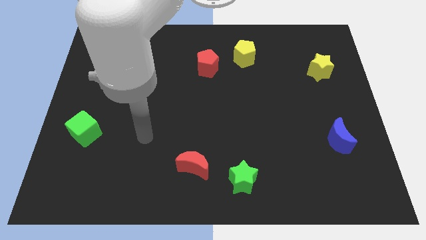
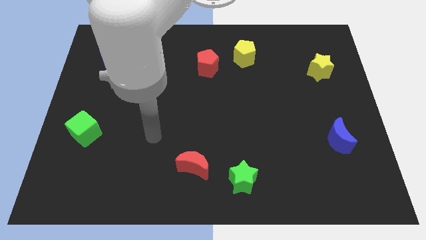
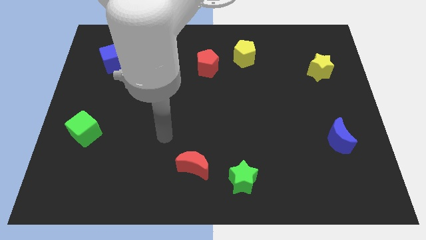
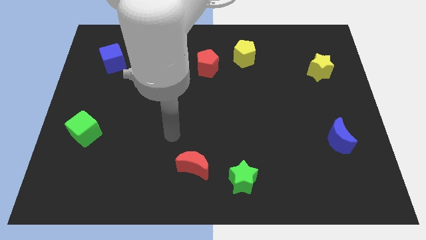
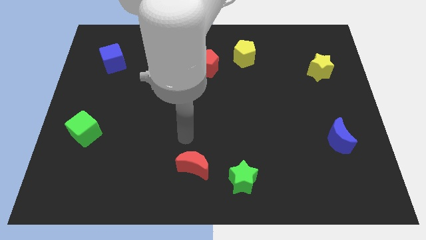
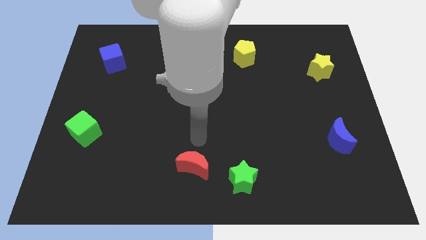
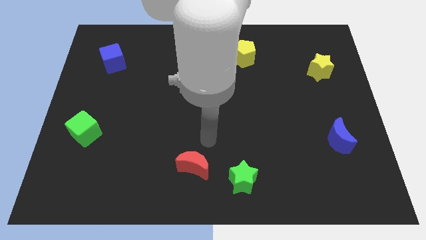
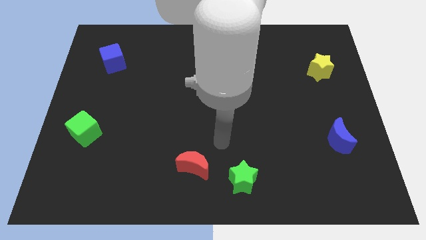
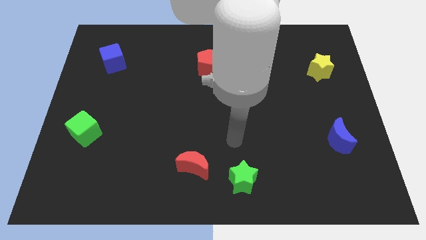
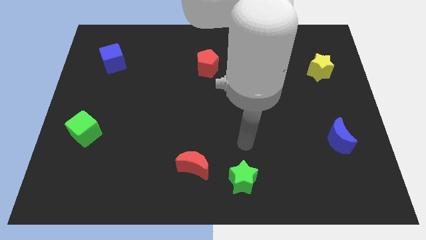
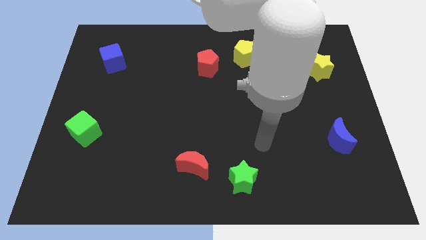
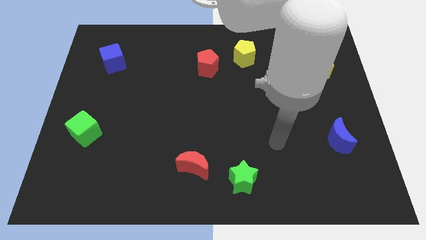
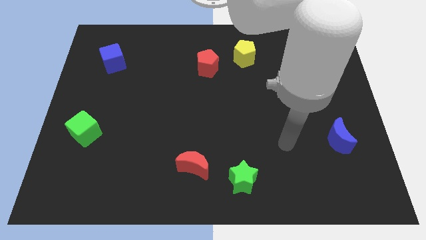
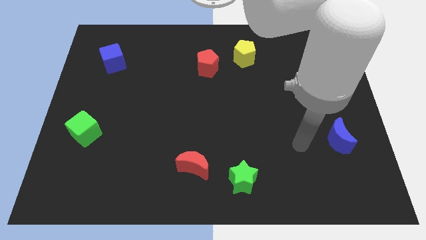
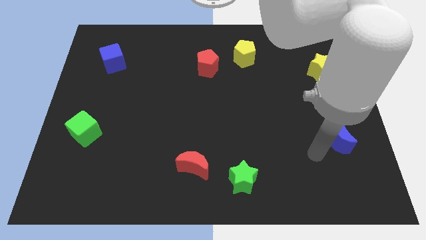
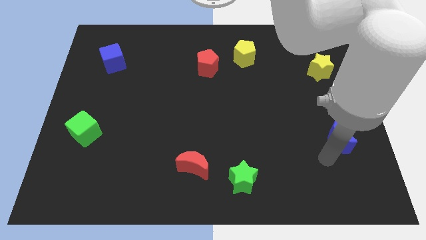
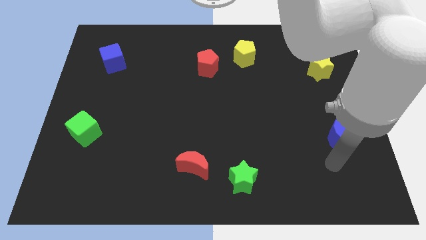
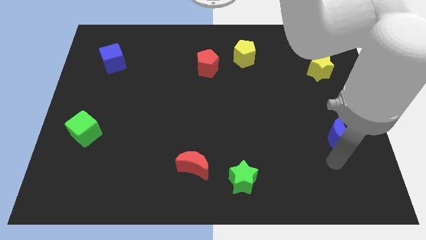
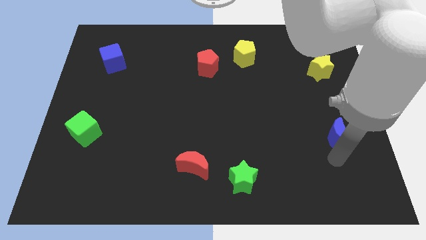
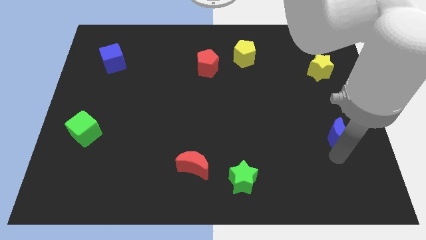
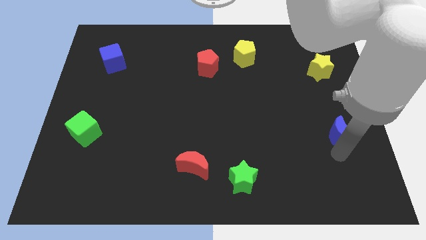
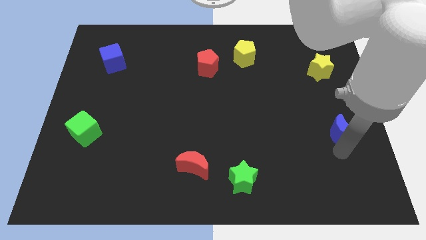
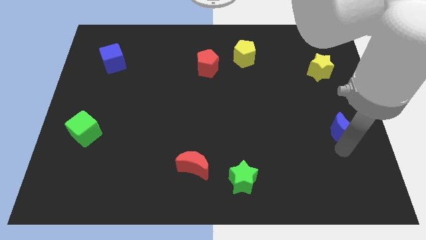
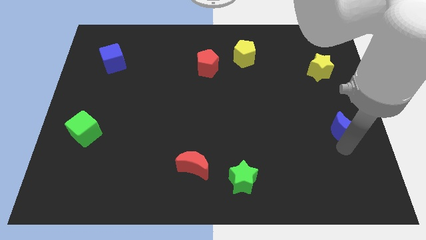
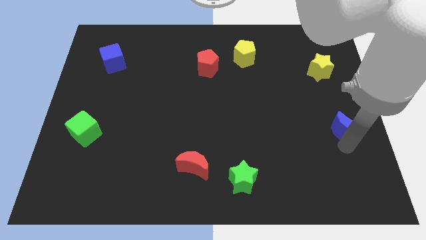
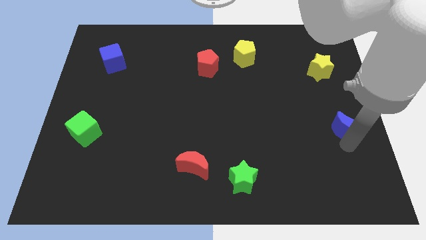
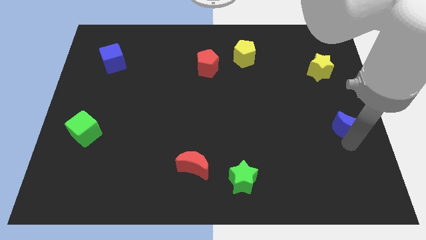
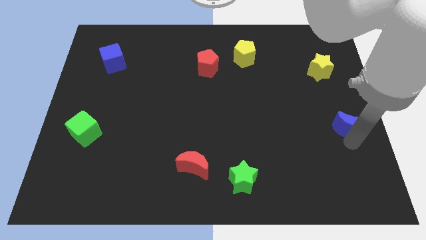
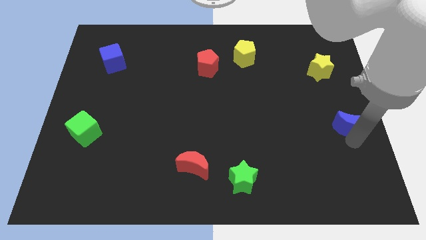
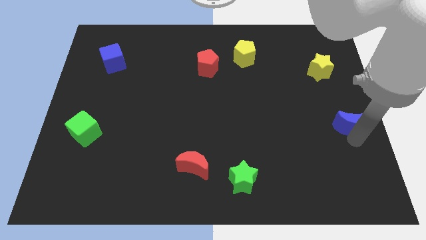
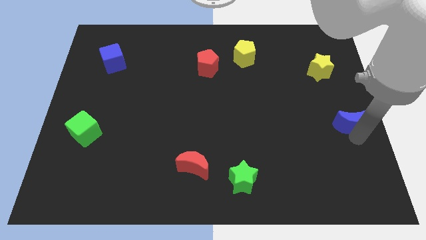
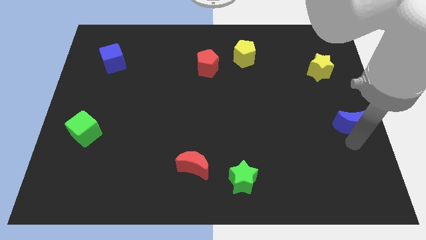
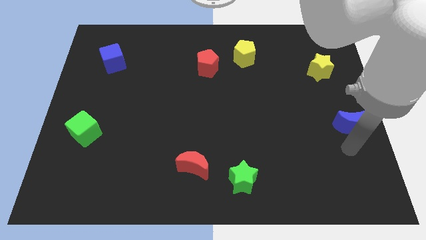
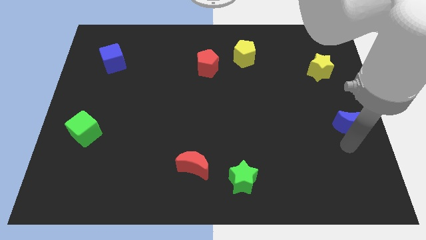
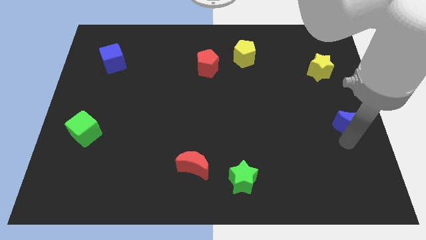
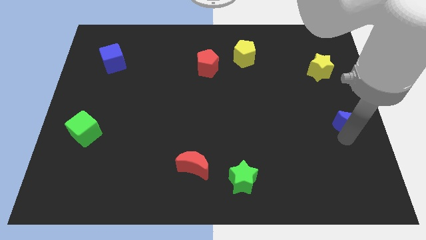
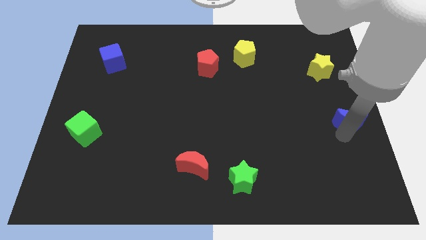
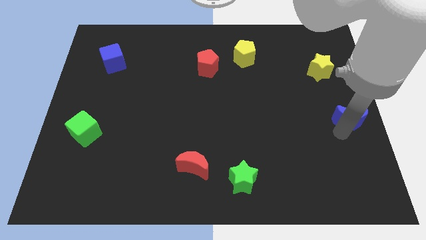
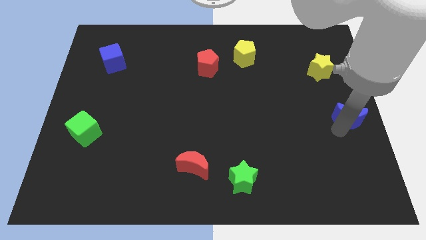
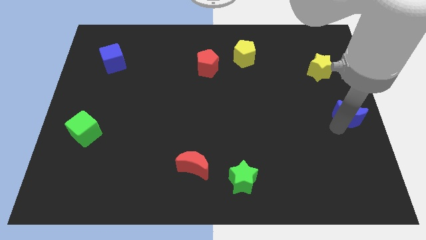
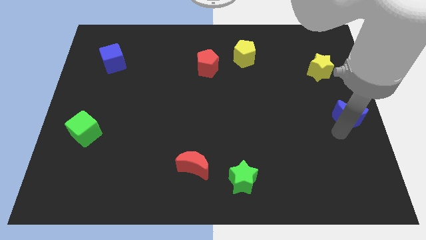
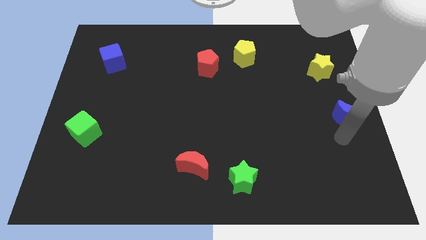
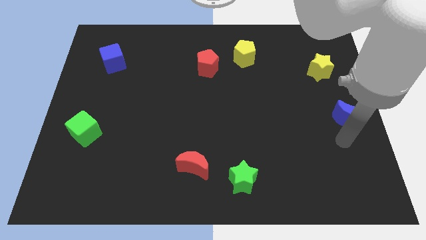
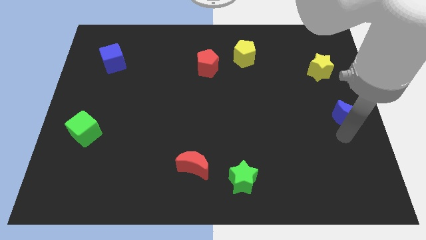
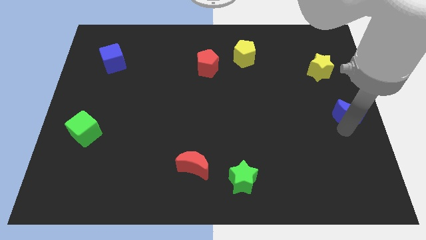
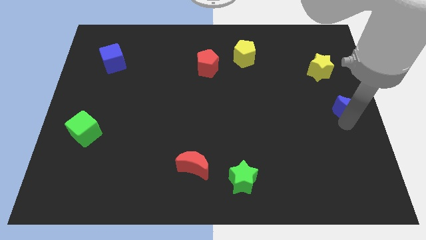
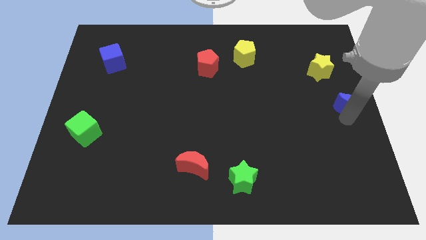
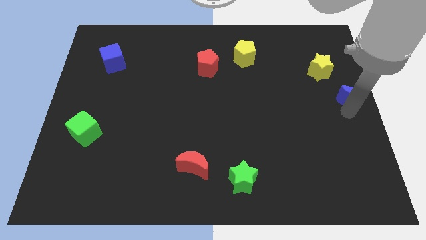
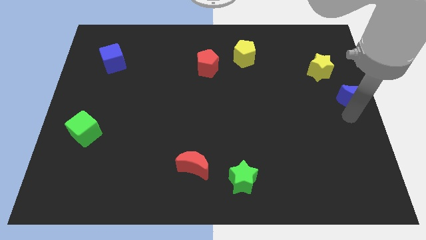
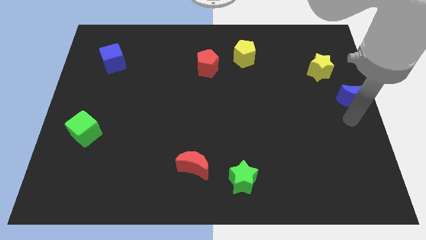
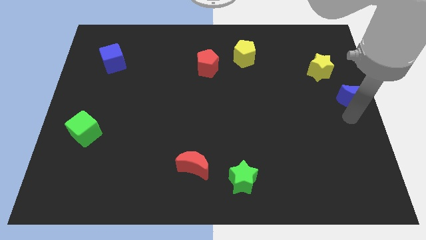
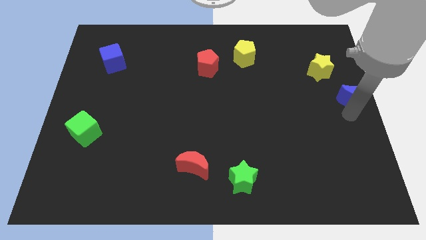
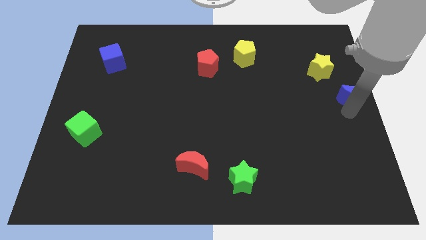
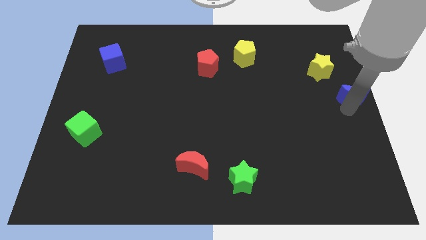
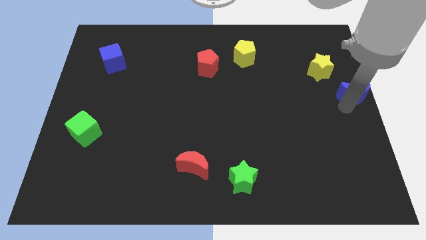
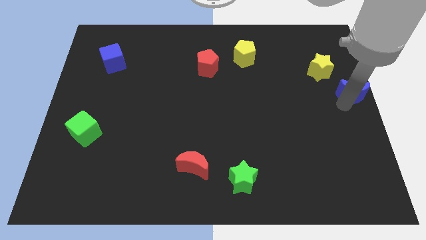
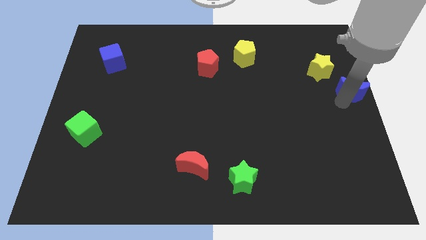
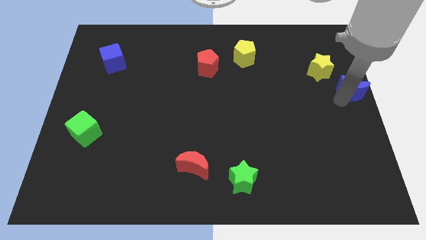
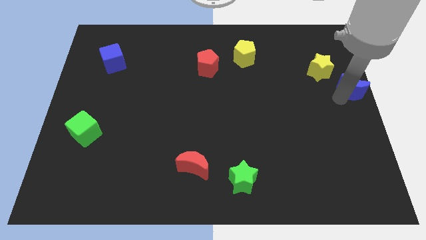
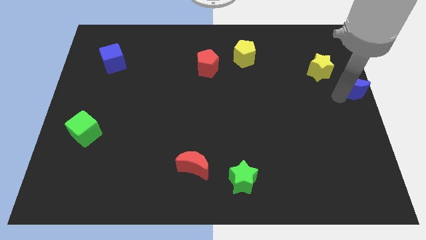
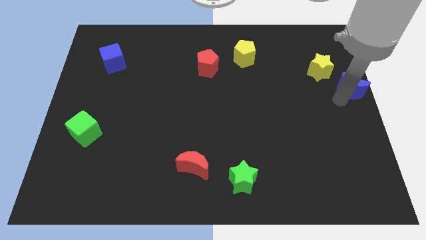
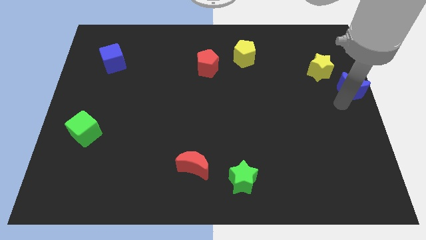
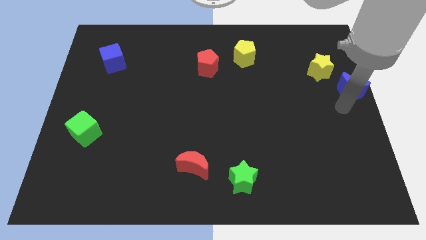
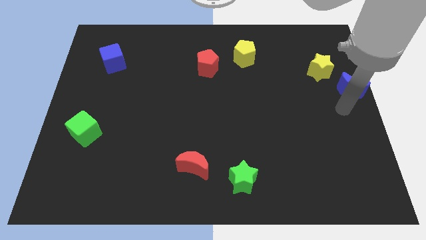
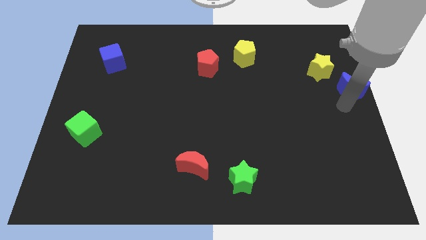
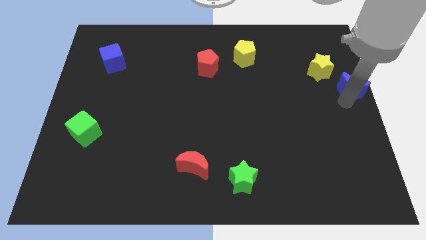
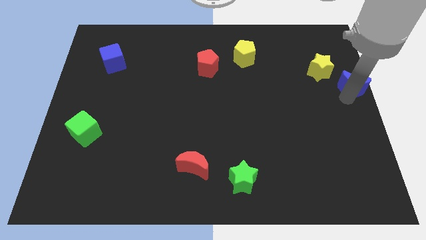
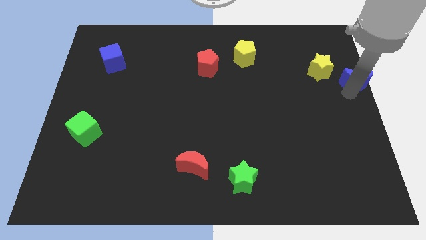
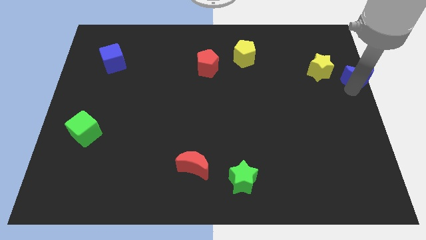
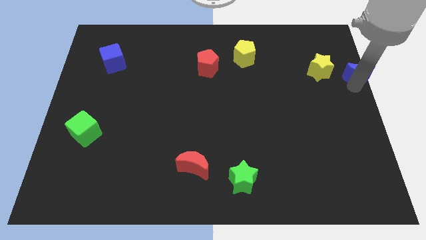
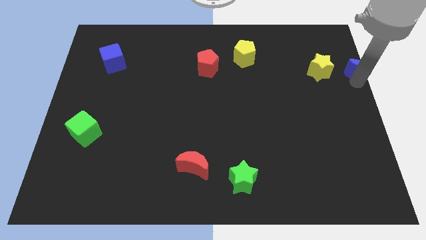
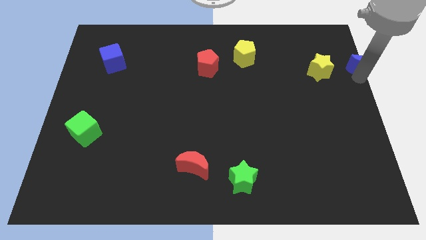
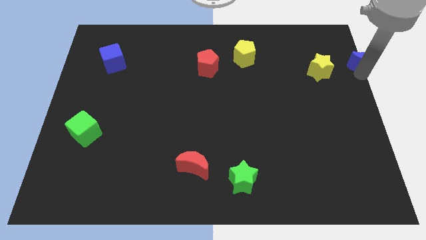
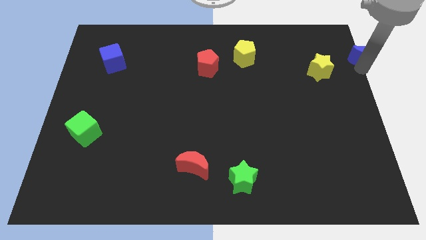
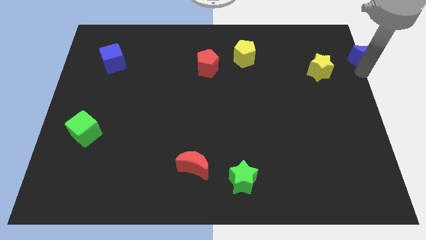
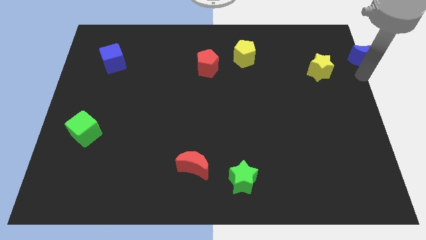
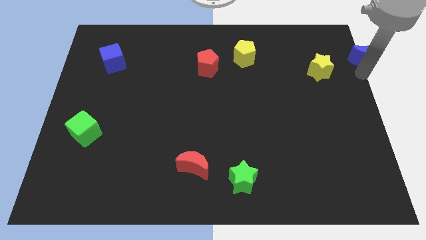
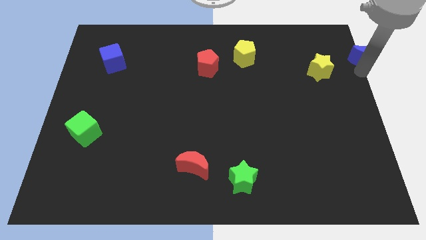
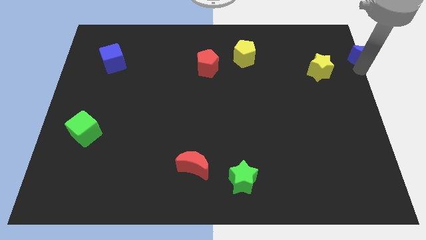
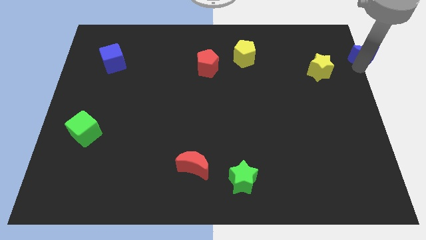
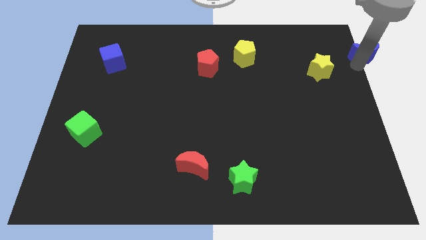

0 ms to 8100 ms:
put the blue moon to the top right
